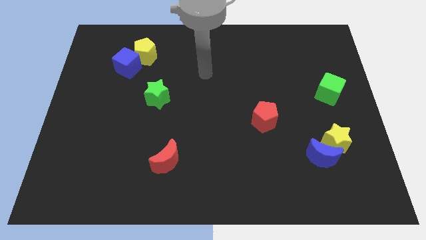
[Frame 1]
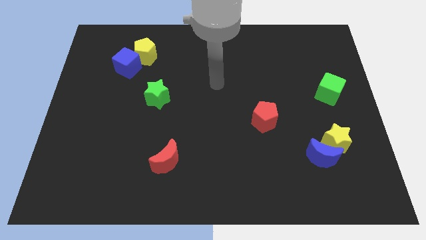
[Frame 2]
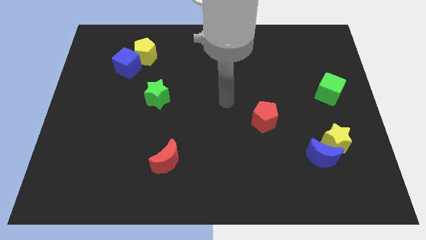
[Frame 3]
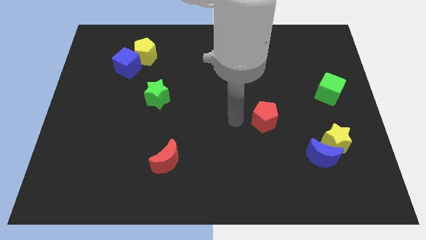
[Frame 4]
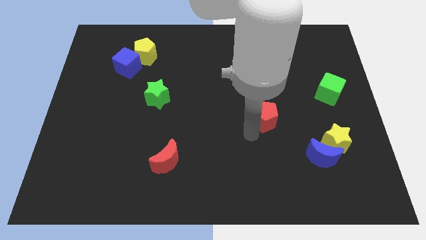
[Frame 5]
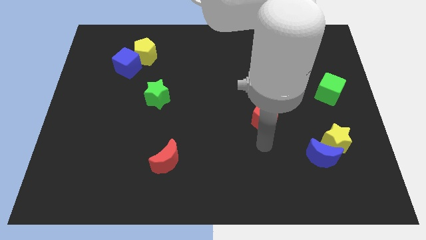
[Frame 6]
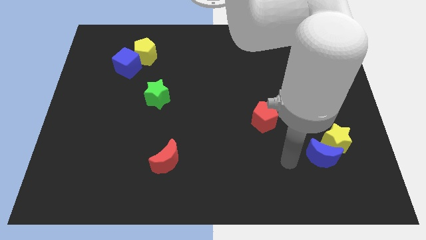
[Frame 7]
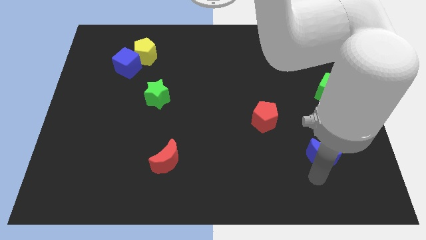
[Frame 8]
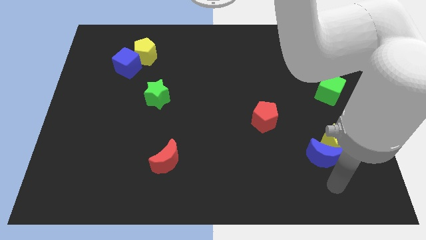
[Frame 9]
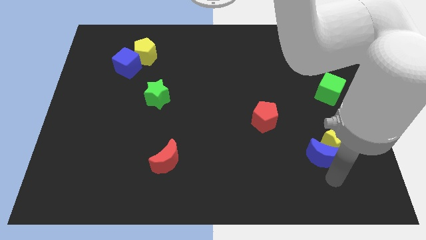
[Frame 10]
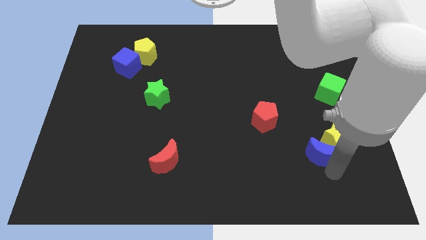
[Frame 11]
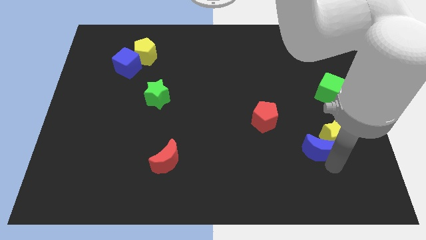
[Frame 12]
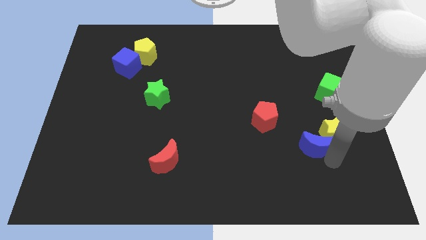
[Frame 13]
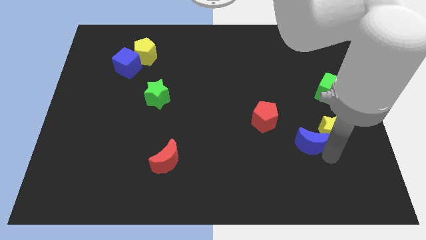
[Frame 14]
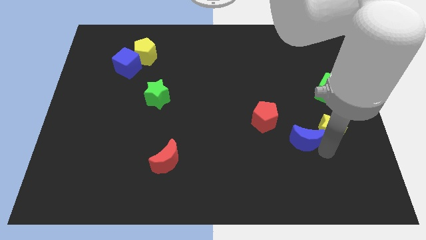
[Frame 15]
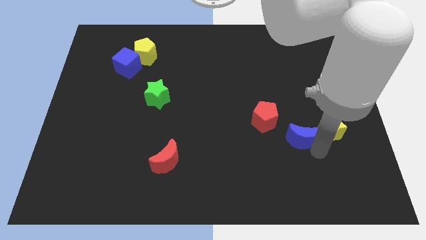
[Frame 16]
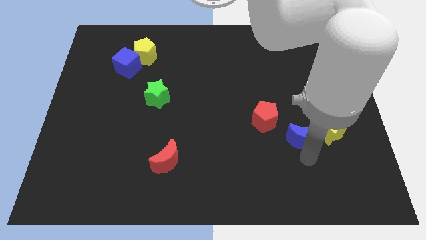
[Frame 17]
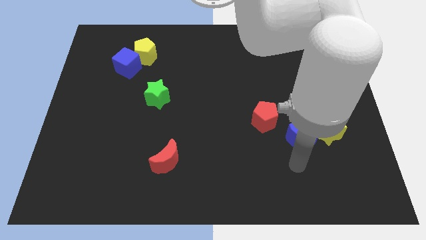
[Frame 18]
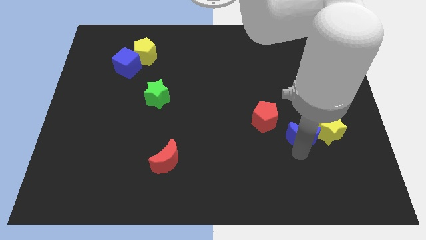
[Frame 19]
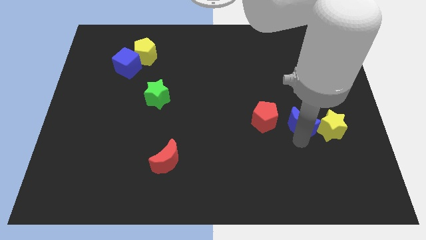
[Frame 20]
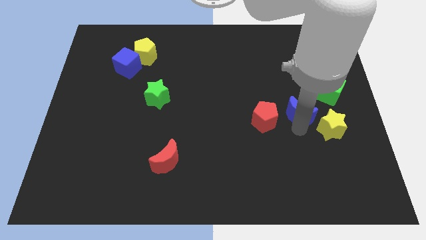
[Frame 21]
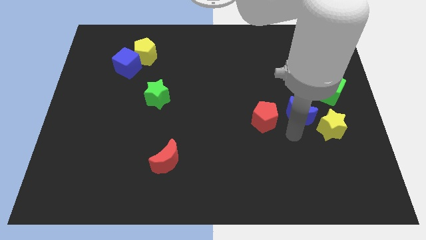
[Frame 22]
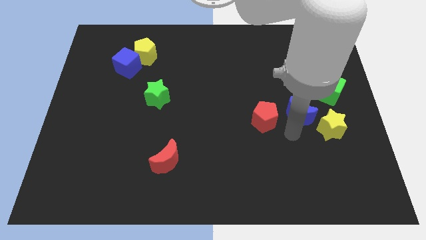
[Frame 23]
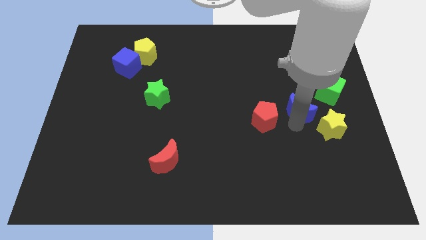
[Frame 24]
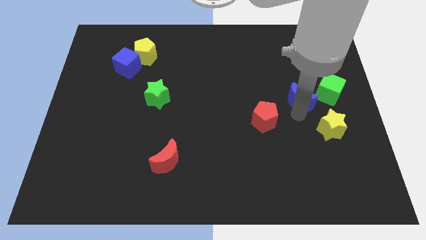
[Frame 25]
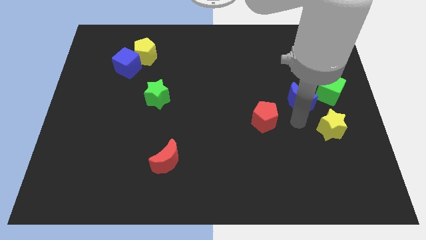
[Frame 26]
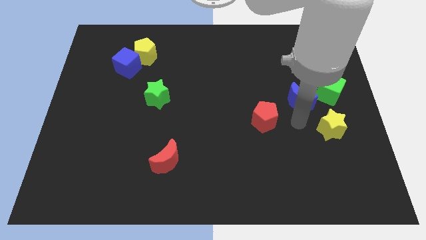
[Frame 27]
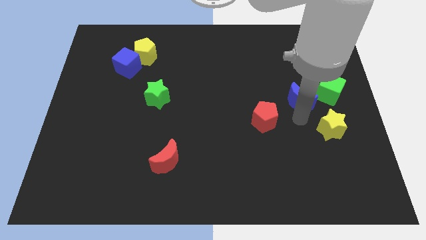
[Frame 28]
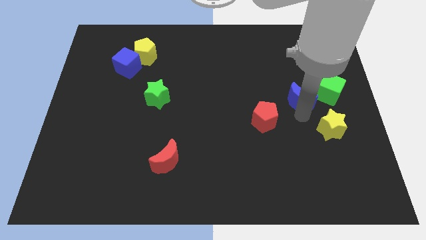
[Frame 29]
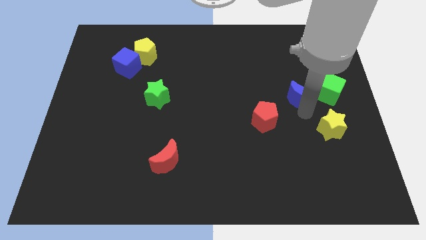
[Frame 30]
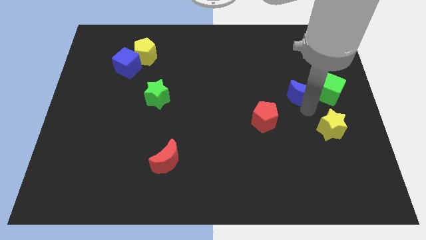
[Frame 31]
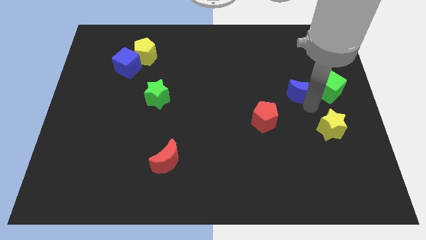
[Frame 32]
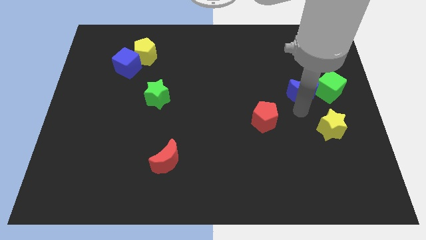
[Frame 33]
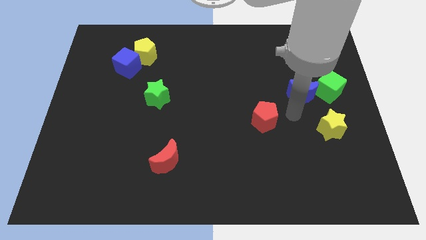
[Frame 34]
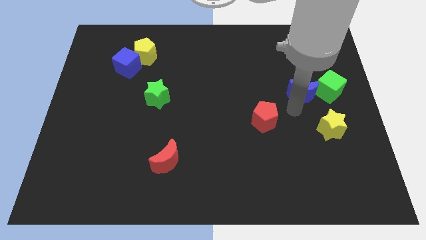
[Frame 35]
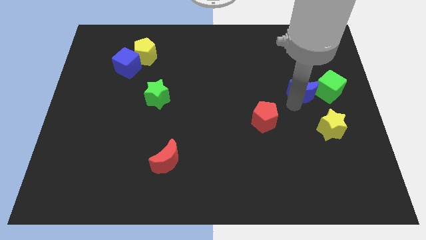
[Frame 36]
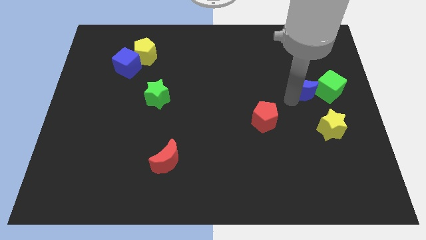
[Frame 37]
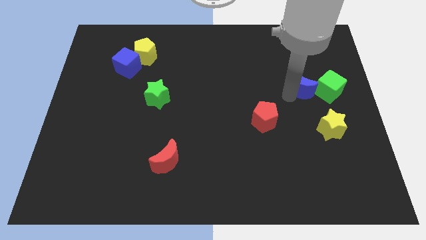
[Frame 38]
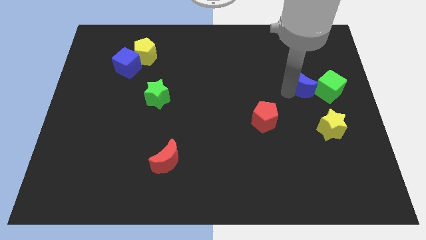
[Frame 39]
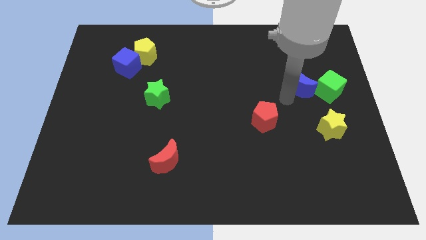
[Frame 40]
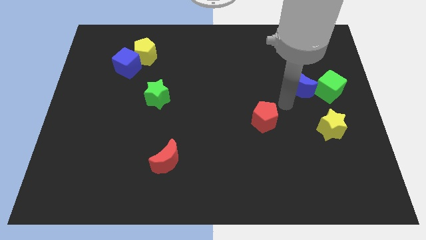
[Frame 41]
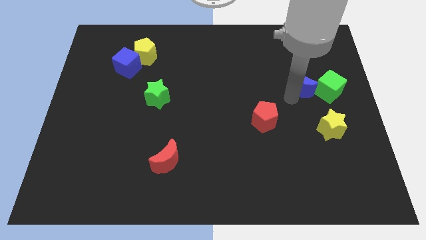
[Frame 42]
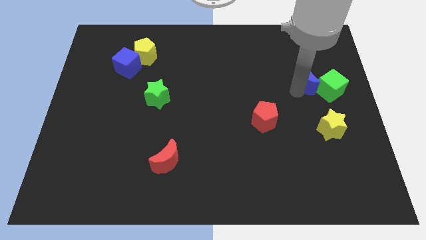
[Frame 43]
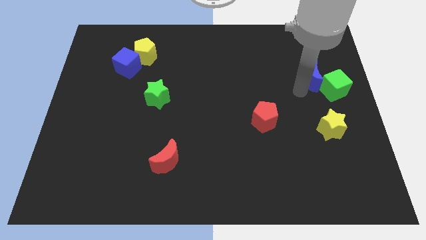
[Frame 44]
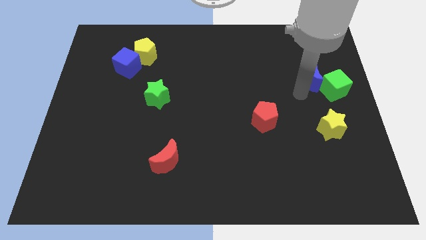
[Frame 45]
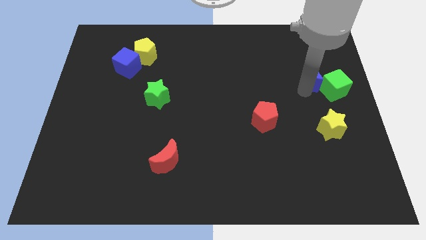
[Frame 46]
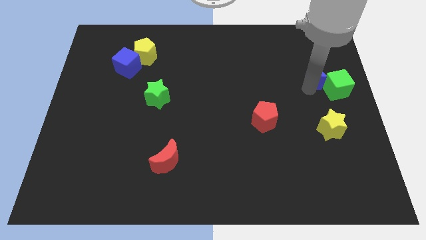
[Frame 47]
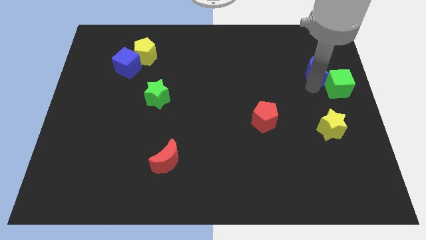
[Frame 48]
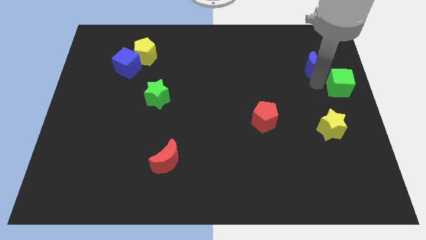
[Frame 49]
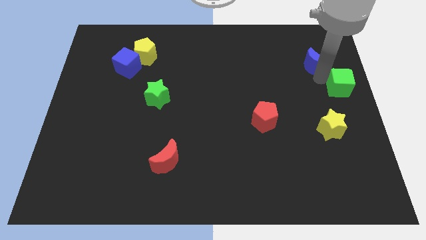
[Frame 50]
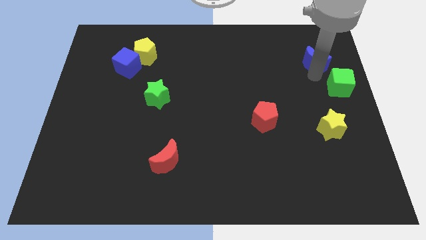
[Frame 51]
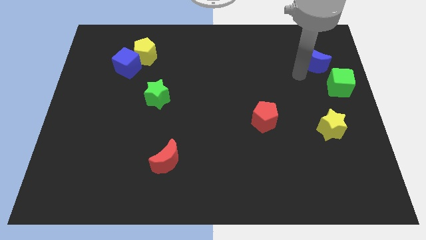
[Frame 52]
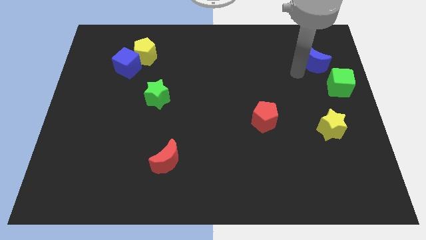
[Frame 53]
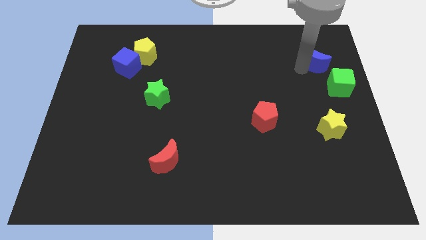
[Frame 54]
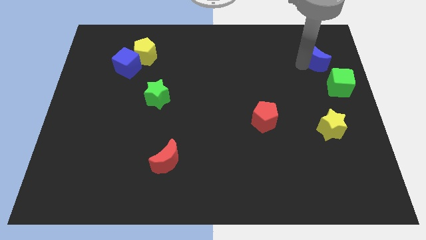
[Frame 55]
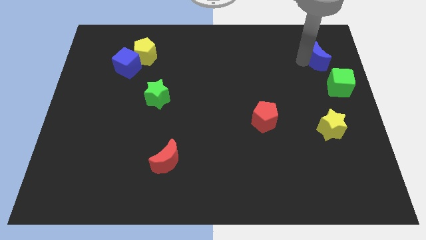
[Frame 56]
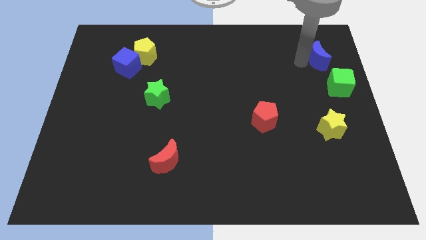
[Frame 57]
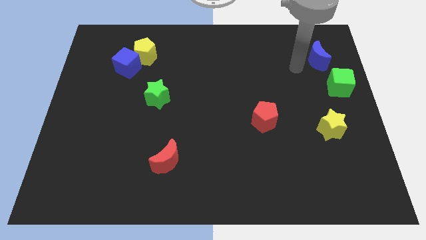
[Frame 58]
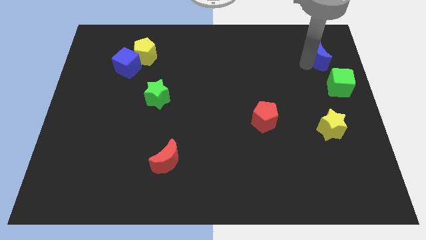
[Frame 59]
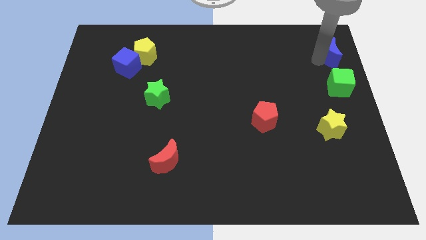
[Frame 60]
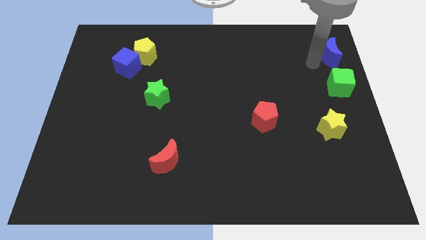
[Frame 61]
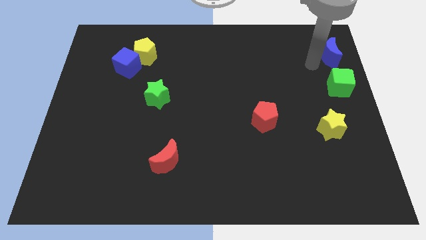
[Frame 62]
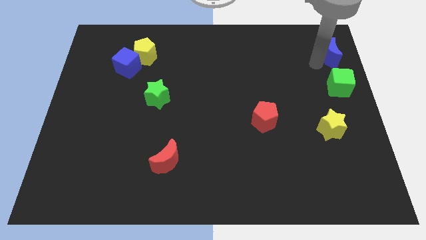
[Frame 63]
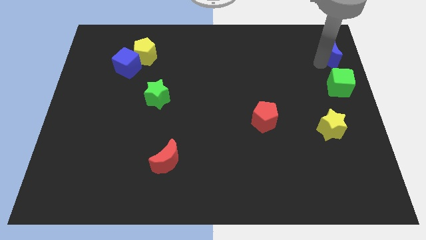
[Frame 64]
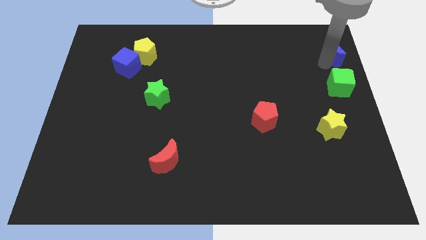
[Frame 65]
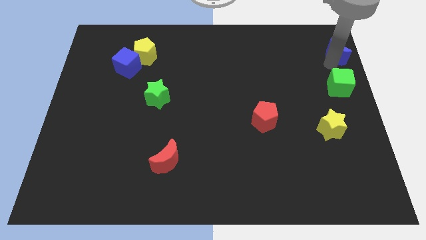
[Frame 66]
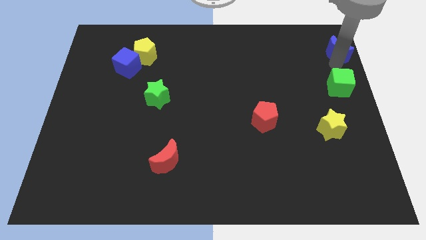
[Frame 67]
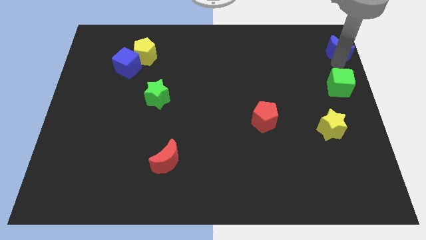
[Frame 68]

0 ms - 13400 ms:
put the blue moon to the top right of the board
